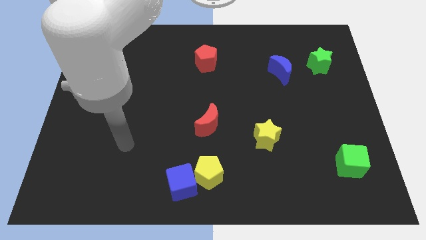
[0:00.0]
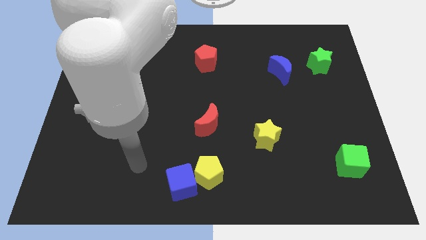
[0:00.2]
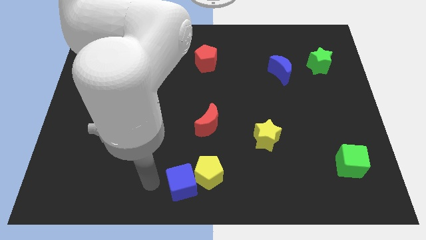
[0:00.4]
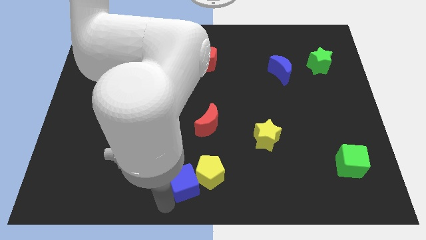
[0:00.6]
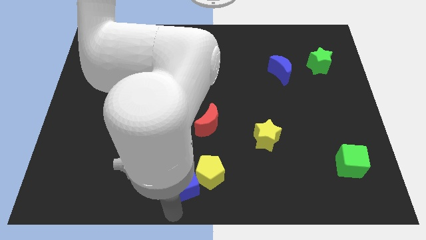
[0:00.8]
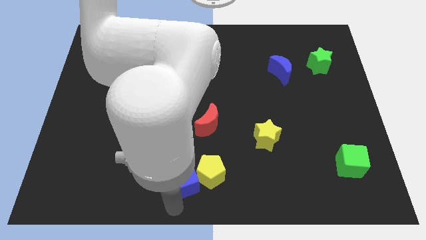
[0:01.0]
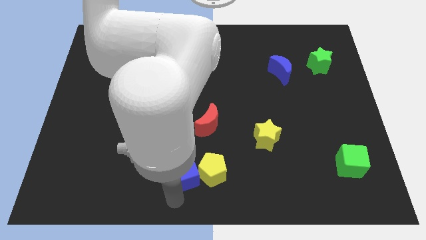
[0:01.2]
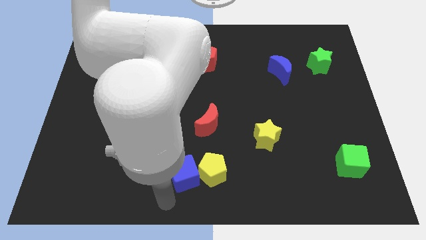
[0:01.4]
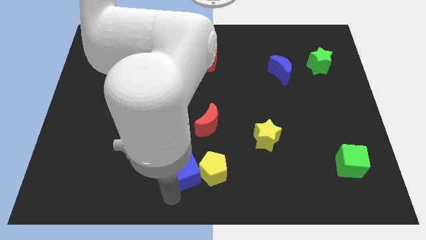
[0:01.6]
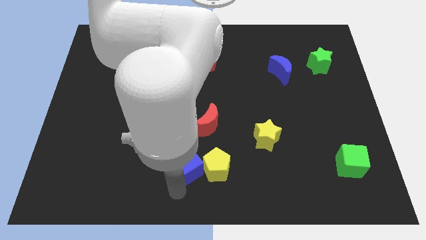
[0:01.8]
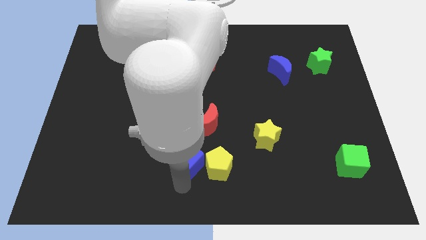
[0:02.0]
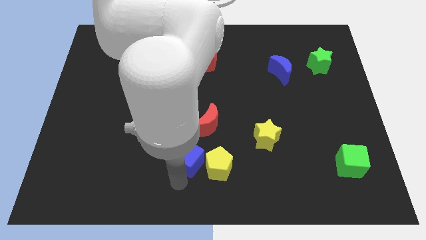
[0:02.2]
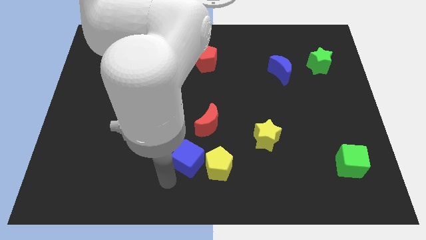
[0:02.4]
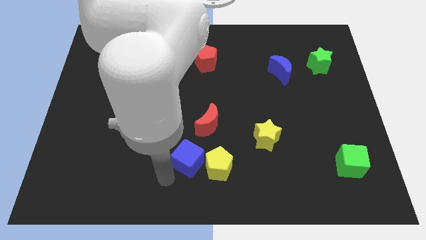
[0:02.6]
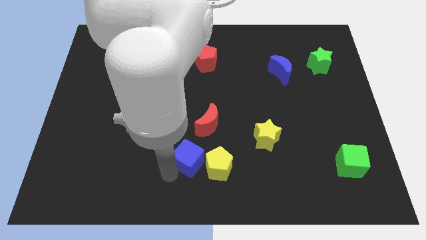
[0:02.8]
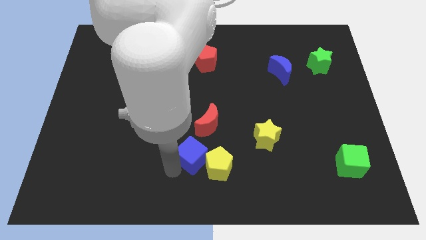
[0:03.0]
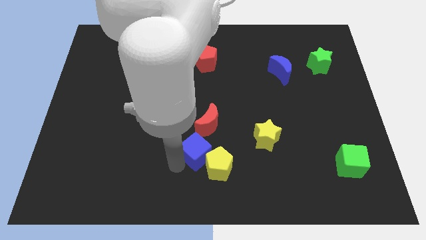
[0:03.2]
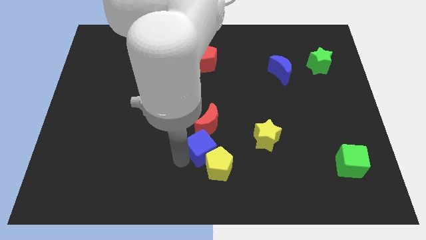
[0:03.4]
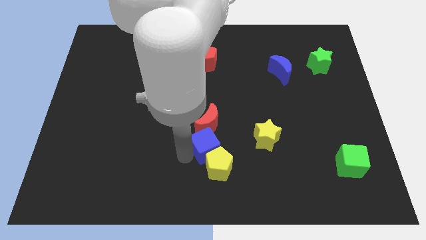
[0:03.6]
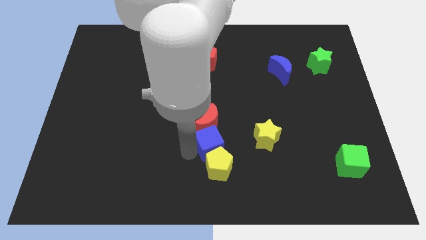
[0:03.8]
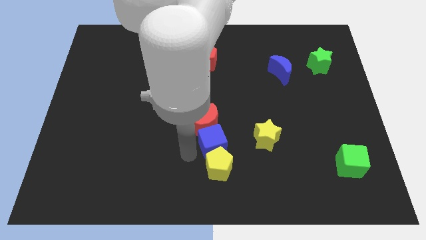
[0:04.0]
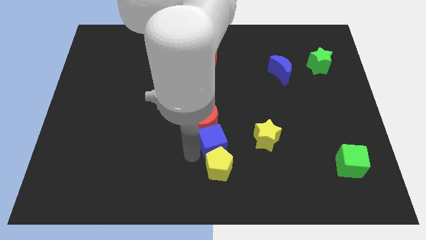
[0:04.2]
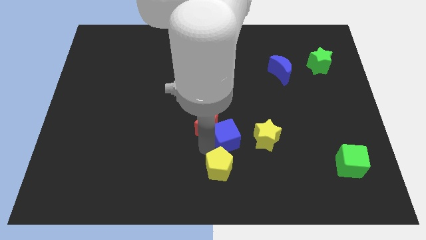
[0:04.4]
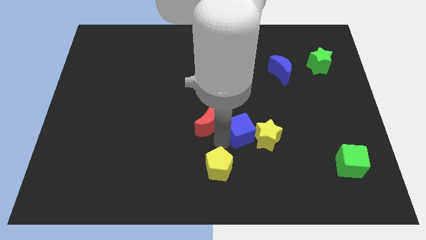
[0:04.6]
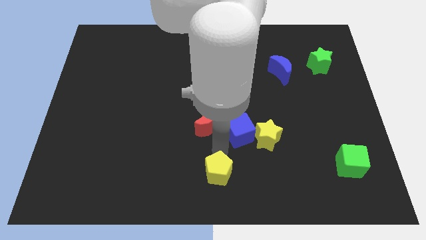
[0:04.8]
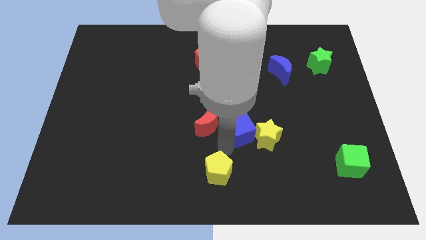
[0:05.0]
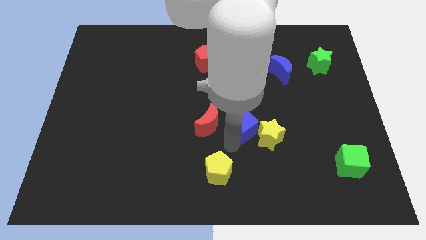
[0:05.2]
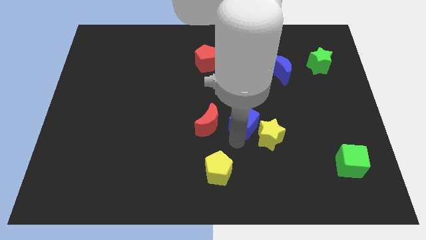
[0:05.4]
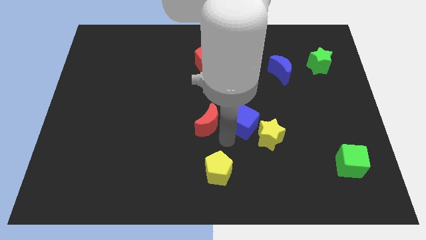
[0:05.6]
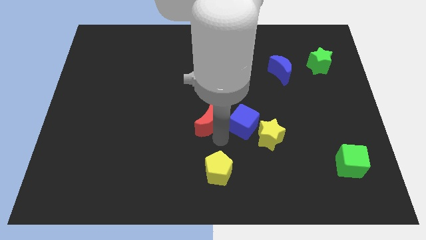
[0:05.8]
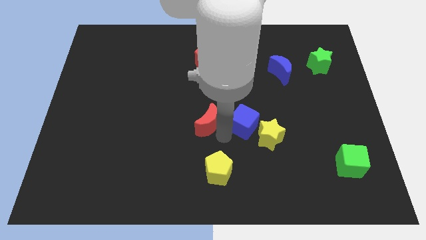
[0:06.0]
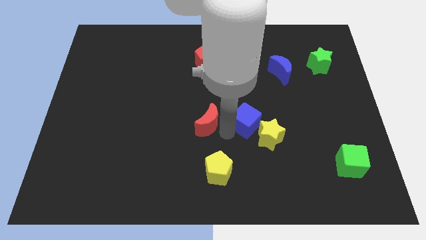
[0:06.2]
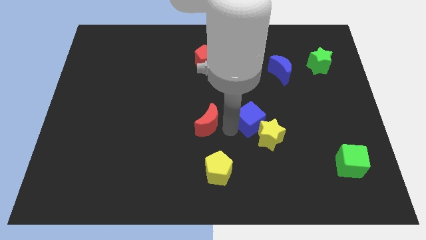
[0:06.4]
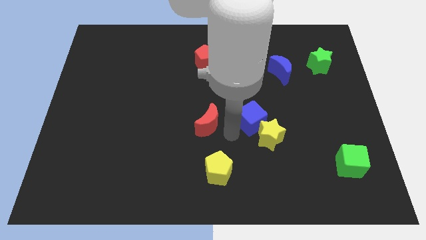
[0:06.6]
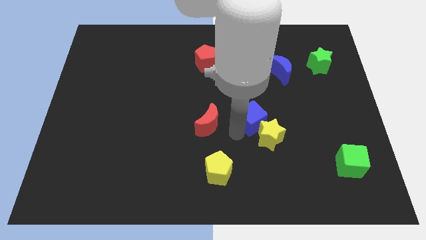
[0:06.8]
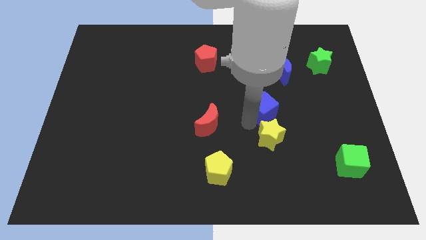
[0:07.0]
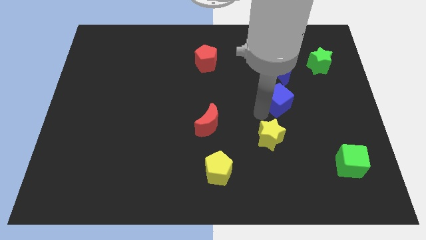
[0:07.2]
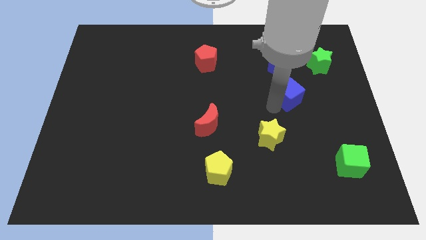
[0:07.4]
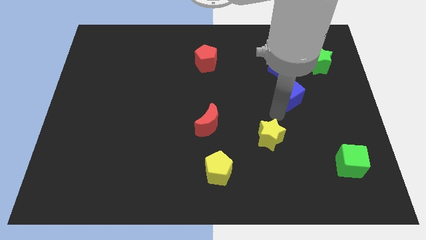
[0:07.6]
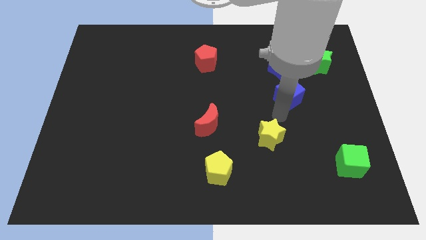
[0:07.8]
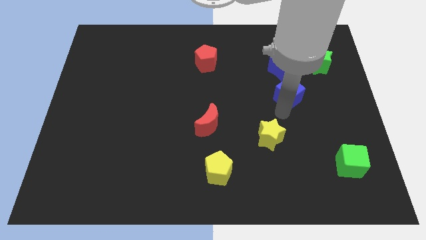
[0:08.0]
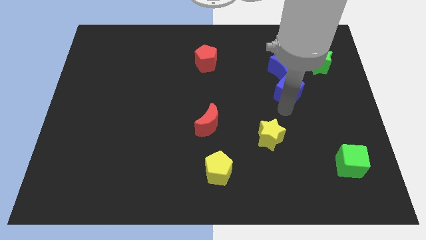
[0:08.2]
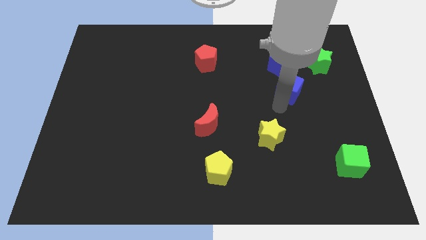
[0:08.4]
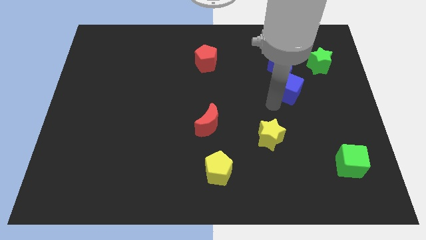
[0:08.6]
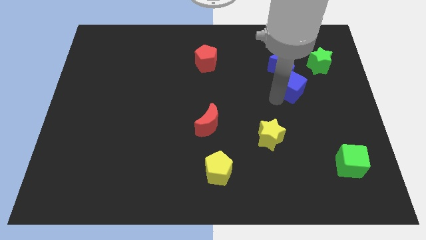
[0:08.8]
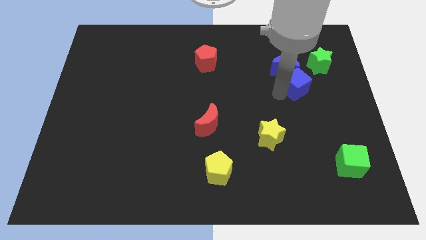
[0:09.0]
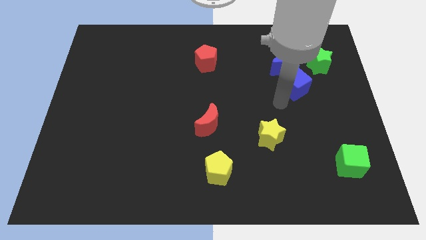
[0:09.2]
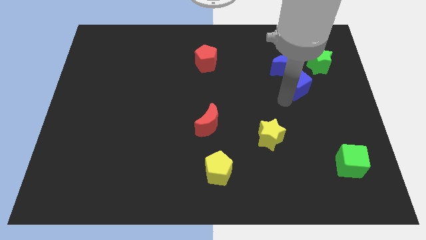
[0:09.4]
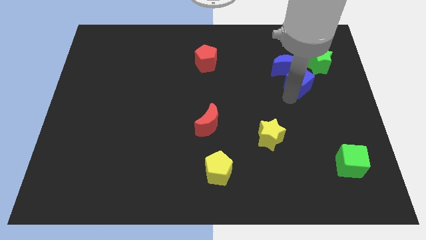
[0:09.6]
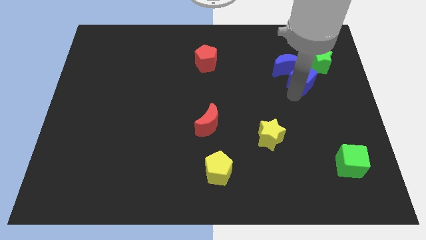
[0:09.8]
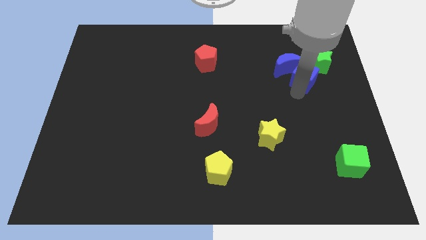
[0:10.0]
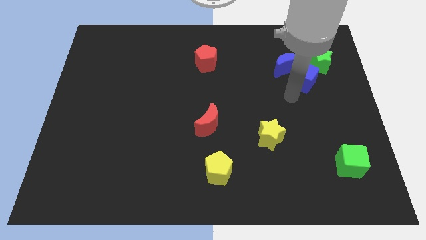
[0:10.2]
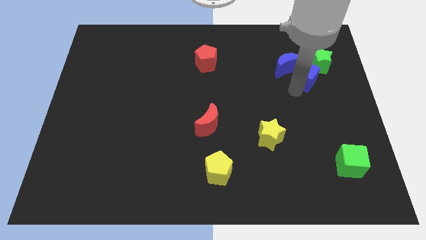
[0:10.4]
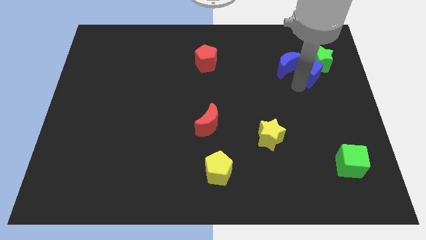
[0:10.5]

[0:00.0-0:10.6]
move the blue cube close to the green star

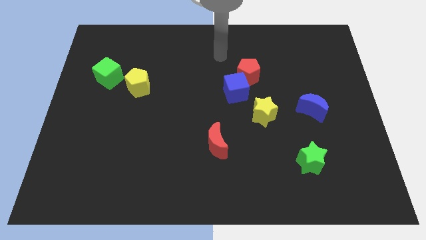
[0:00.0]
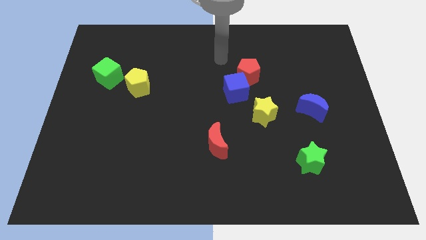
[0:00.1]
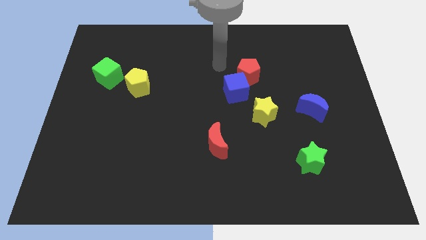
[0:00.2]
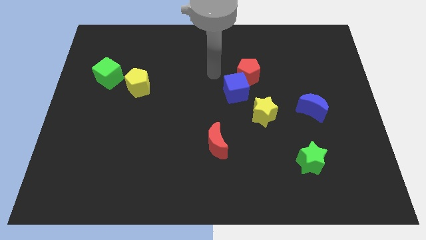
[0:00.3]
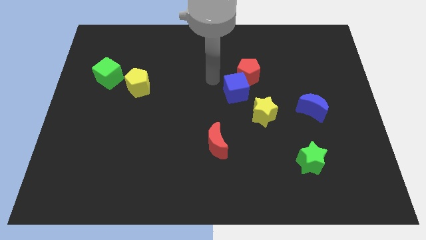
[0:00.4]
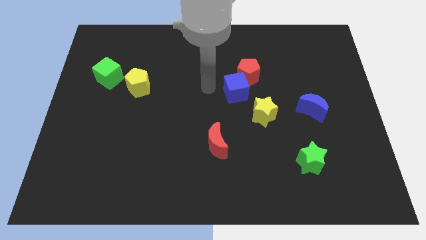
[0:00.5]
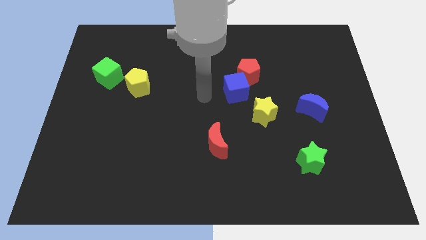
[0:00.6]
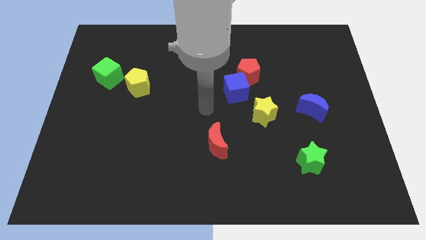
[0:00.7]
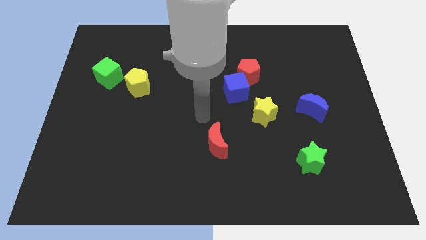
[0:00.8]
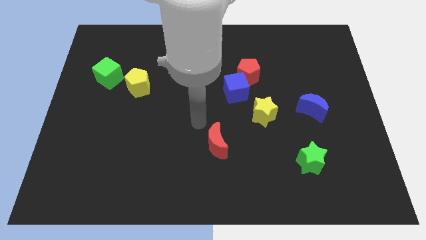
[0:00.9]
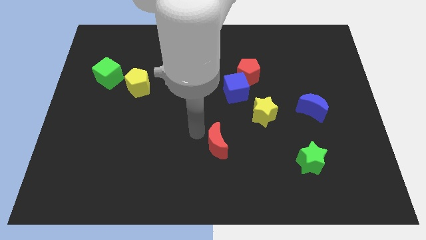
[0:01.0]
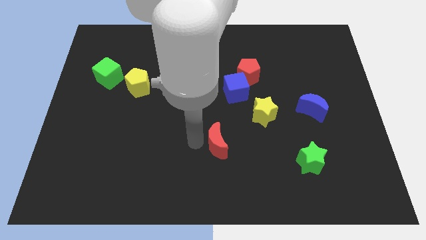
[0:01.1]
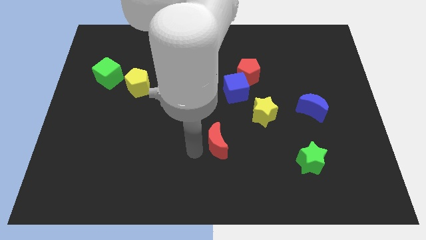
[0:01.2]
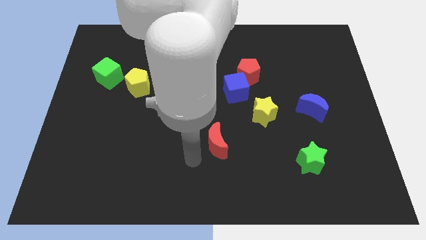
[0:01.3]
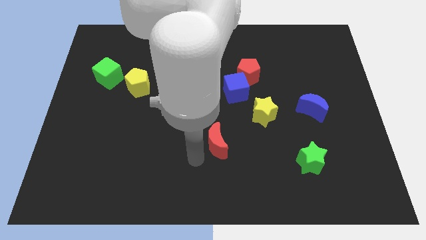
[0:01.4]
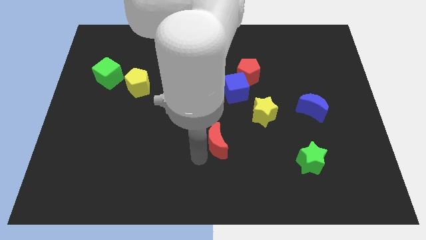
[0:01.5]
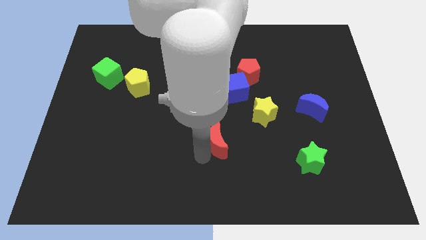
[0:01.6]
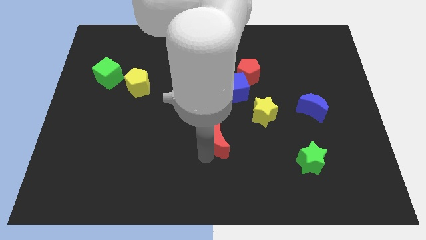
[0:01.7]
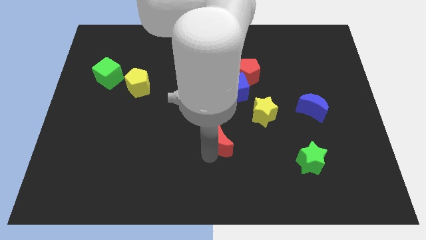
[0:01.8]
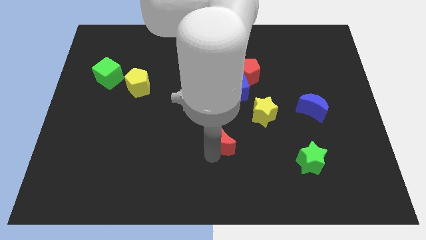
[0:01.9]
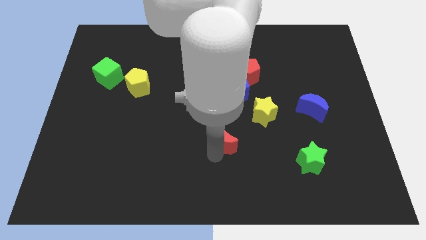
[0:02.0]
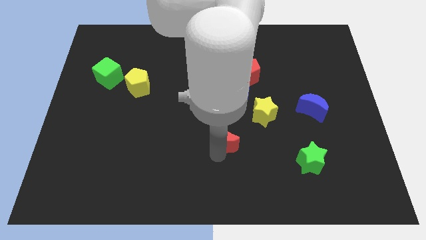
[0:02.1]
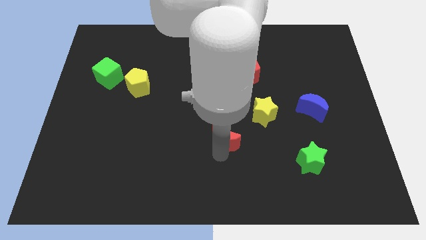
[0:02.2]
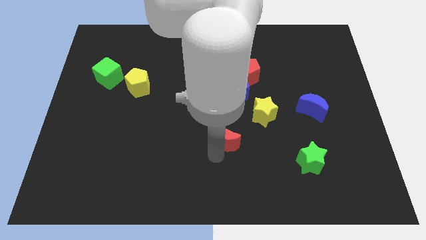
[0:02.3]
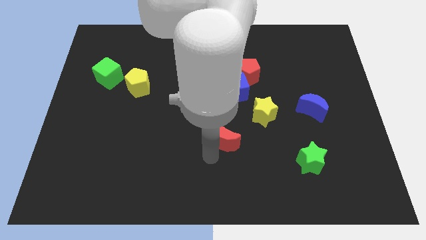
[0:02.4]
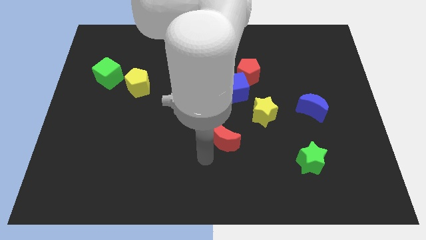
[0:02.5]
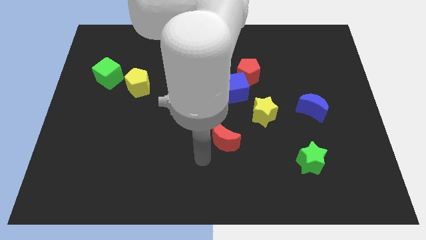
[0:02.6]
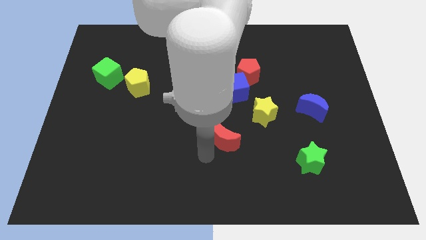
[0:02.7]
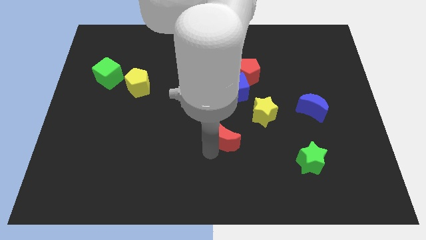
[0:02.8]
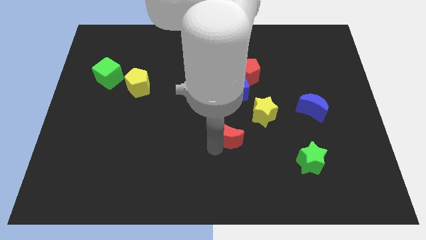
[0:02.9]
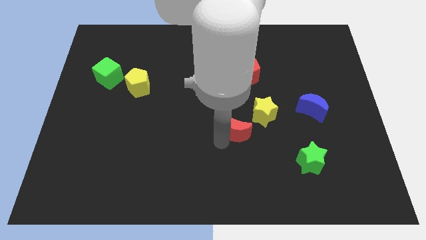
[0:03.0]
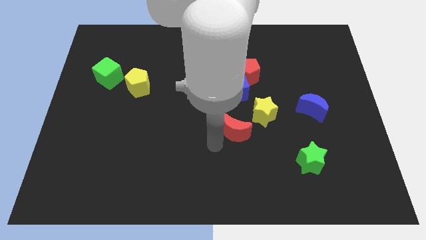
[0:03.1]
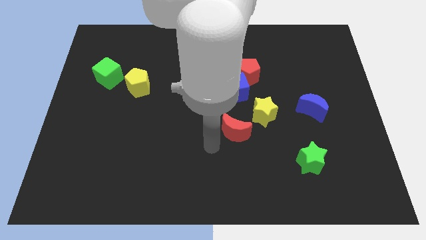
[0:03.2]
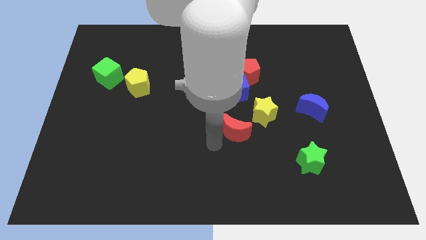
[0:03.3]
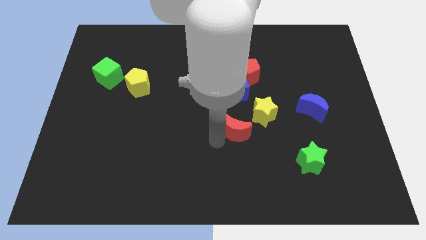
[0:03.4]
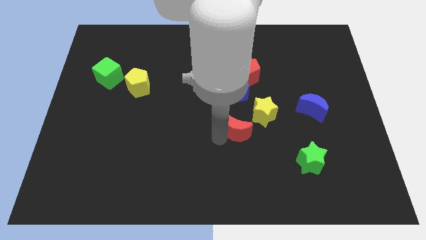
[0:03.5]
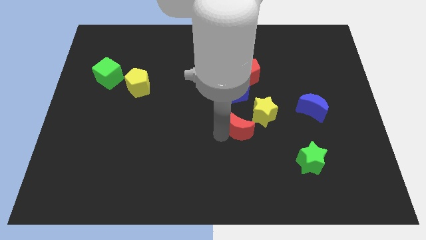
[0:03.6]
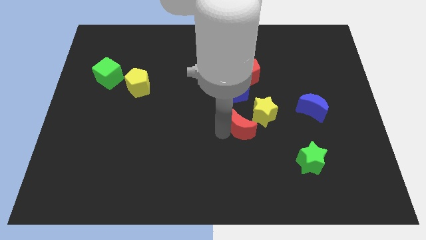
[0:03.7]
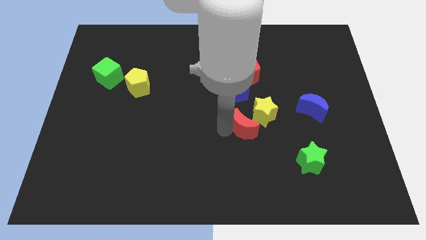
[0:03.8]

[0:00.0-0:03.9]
slide the red moon close to the yellow star
